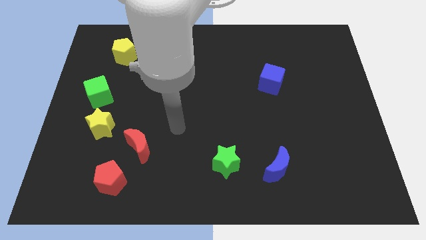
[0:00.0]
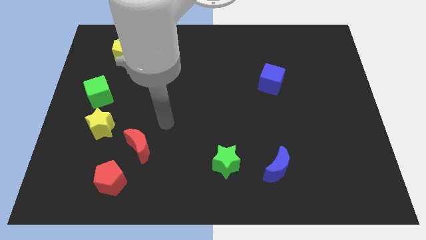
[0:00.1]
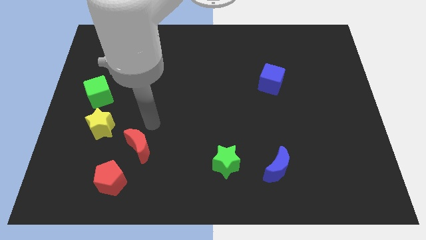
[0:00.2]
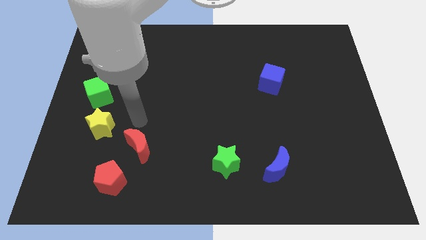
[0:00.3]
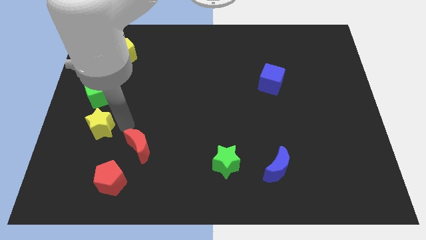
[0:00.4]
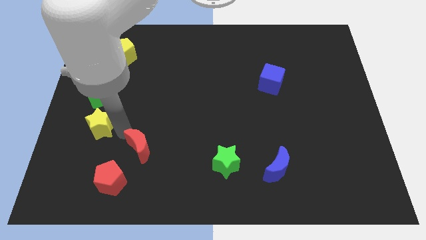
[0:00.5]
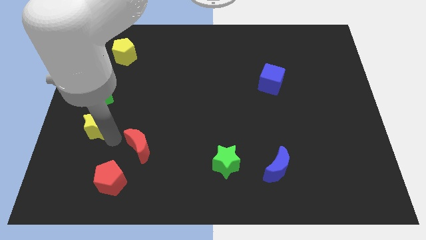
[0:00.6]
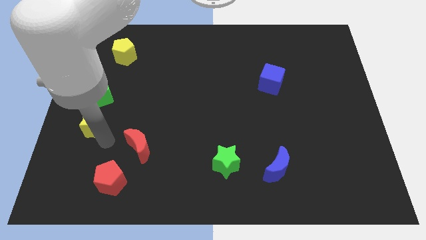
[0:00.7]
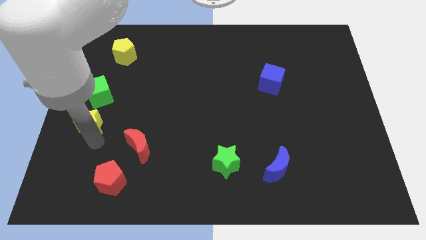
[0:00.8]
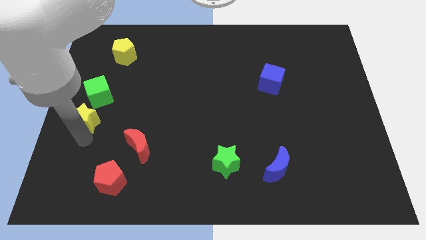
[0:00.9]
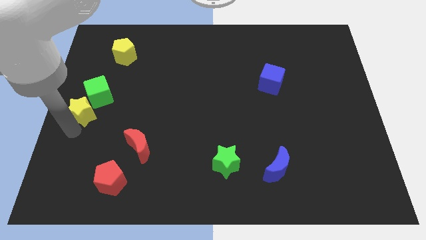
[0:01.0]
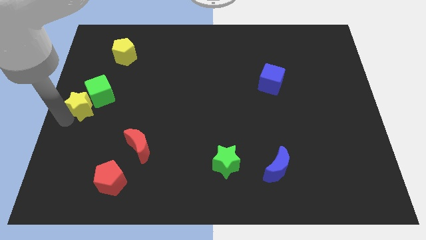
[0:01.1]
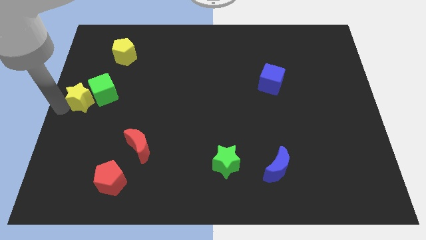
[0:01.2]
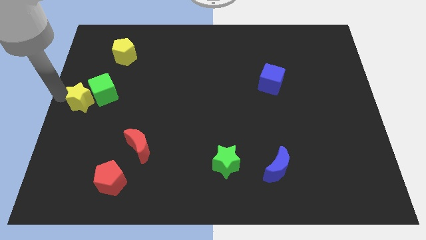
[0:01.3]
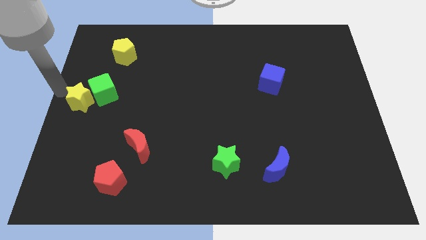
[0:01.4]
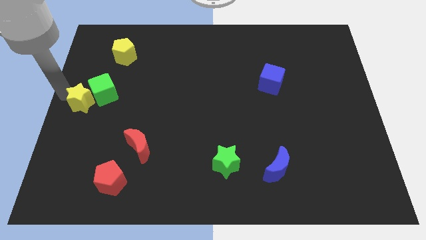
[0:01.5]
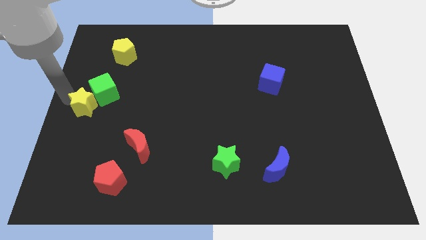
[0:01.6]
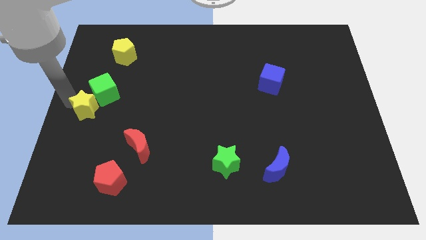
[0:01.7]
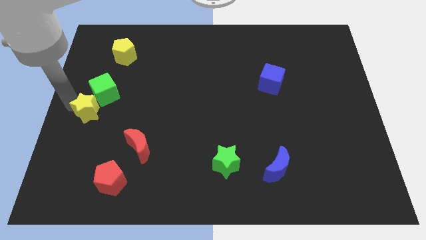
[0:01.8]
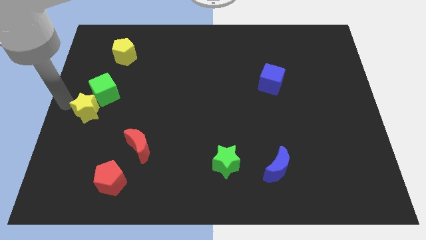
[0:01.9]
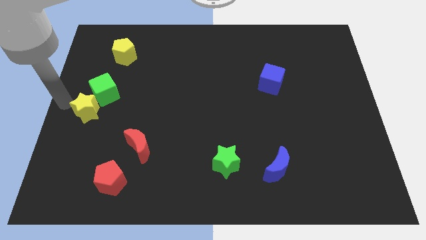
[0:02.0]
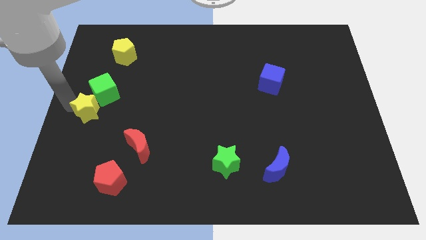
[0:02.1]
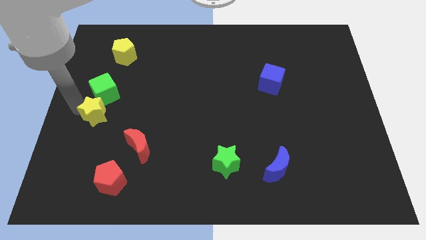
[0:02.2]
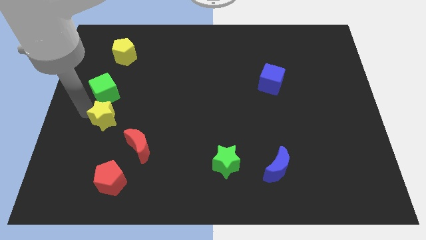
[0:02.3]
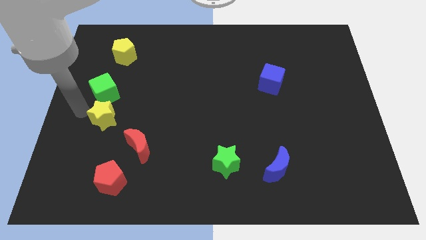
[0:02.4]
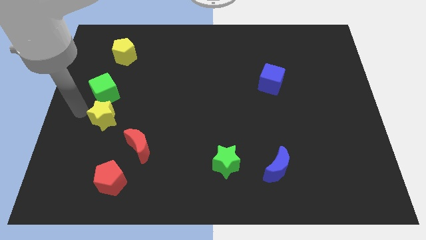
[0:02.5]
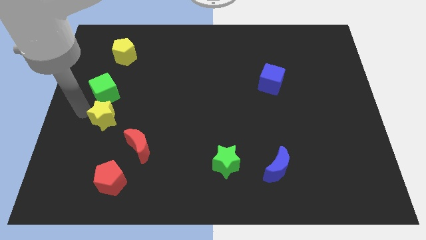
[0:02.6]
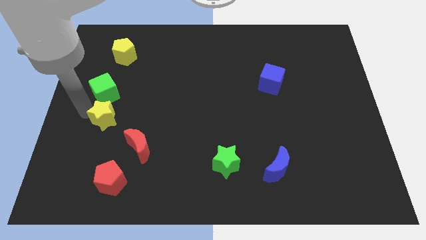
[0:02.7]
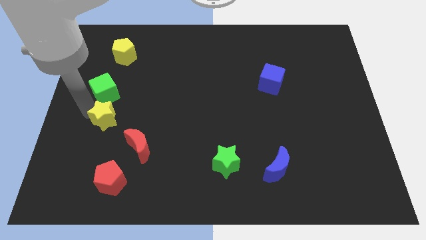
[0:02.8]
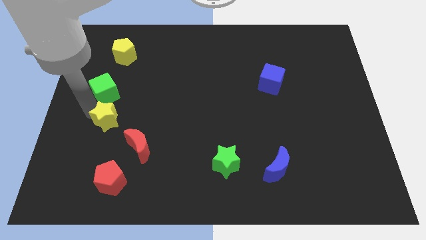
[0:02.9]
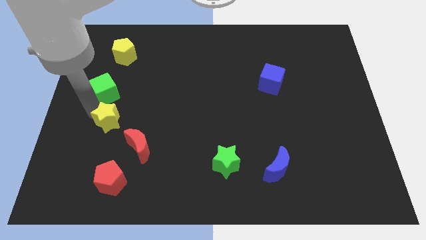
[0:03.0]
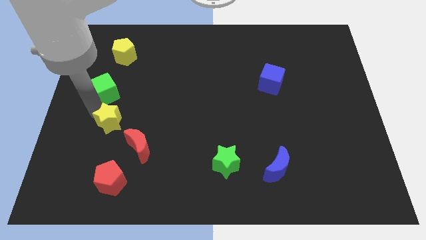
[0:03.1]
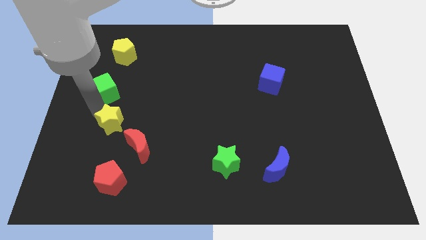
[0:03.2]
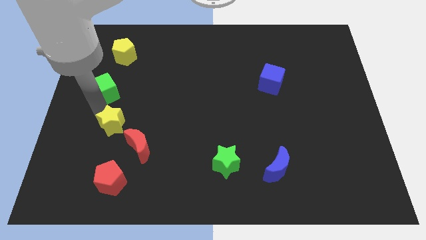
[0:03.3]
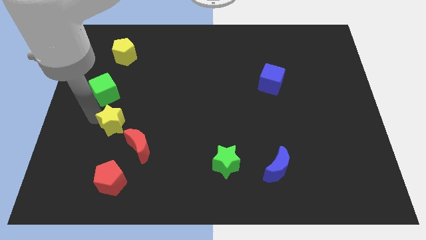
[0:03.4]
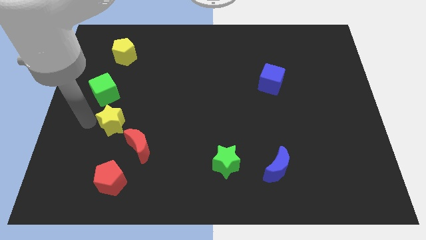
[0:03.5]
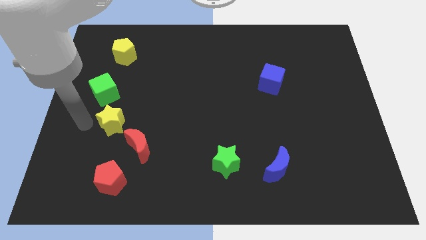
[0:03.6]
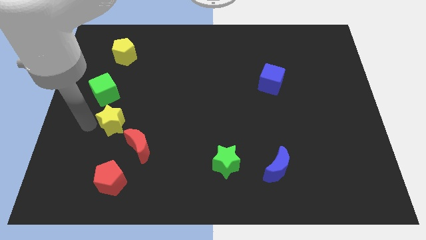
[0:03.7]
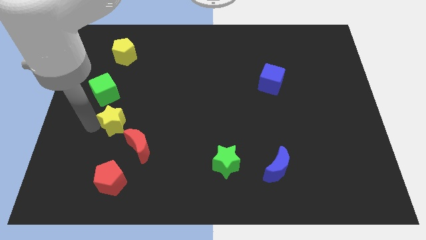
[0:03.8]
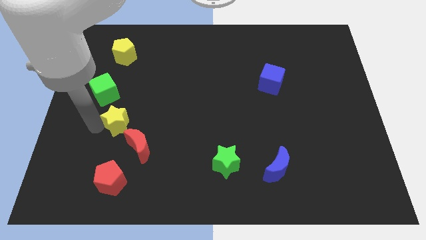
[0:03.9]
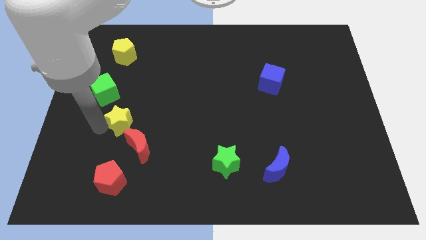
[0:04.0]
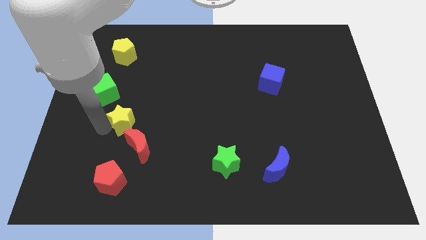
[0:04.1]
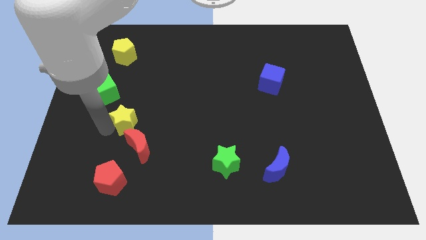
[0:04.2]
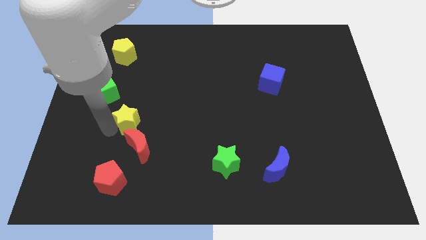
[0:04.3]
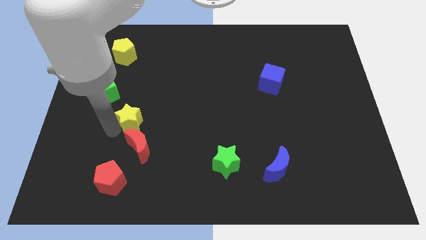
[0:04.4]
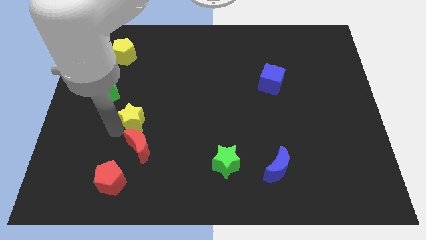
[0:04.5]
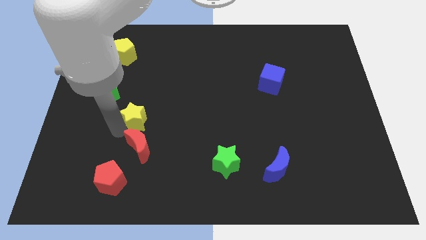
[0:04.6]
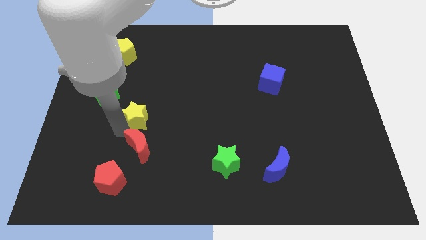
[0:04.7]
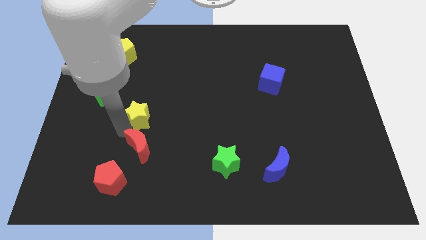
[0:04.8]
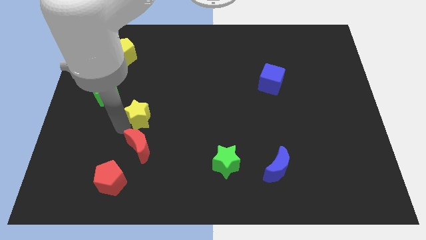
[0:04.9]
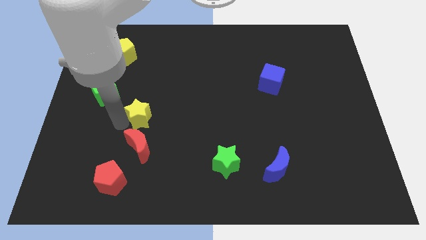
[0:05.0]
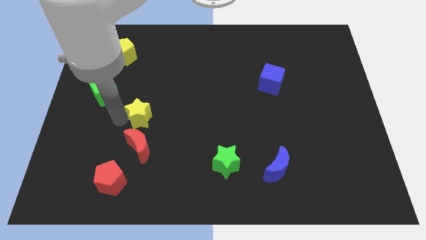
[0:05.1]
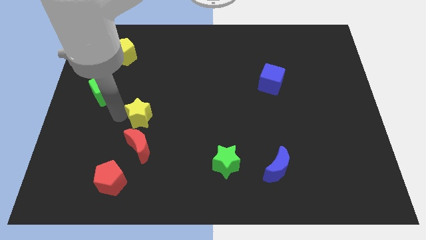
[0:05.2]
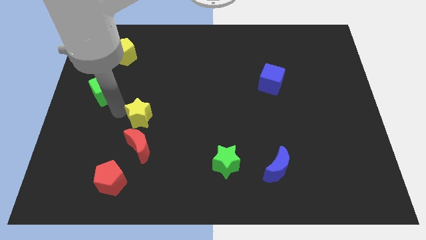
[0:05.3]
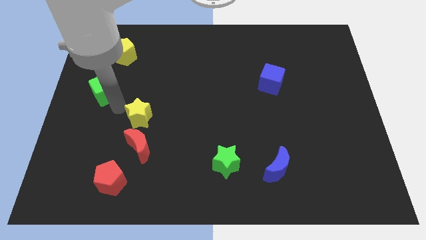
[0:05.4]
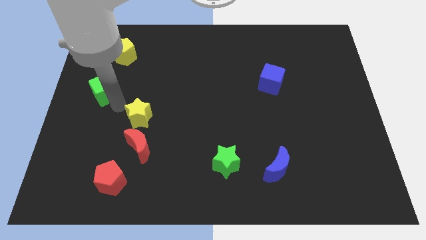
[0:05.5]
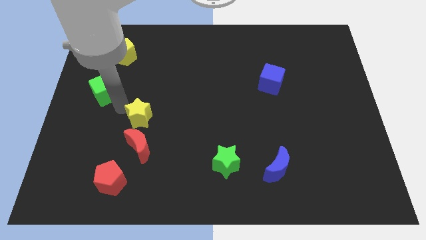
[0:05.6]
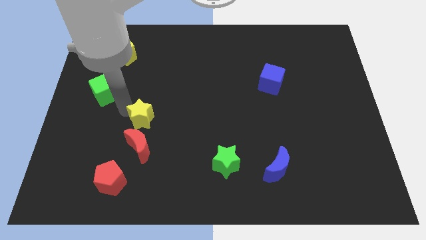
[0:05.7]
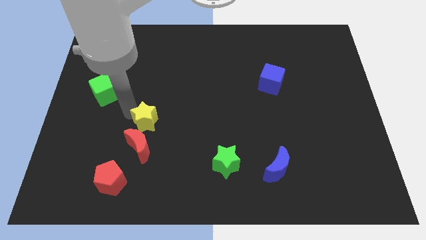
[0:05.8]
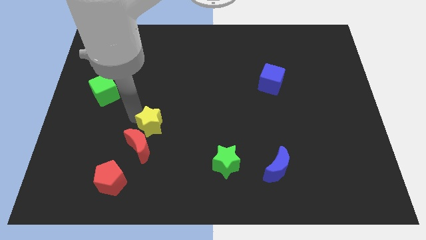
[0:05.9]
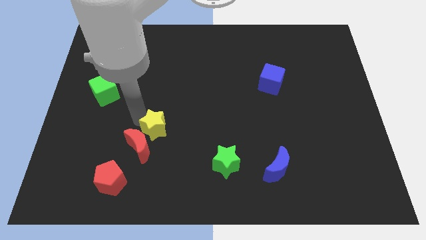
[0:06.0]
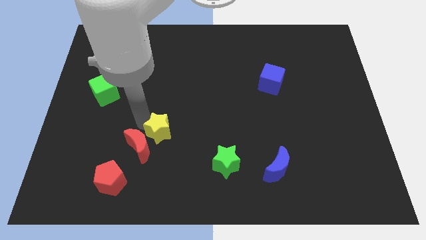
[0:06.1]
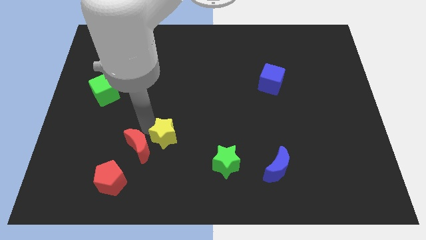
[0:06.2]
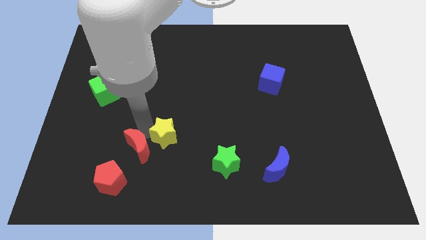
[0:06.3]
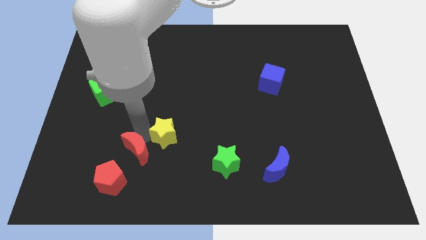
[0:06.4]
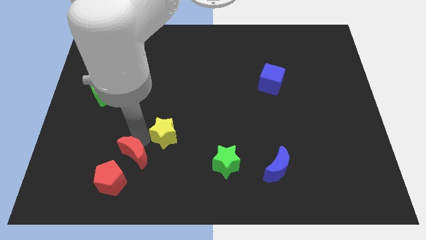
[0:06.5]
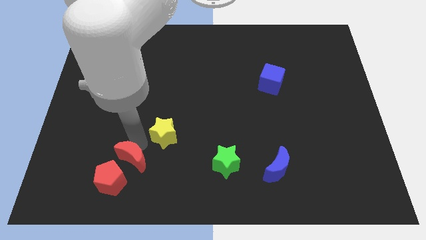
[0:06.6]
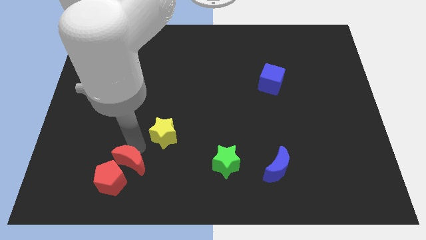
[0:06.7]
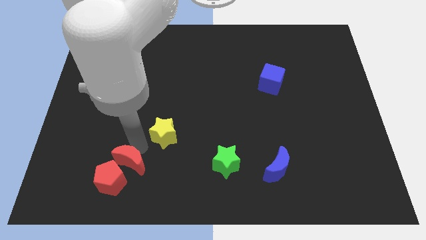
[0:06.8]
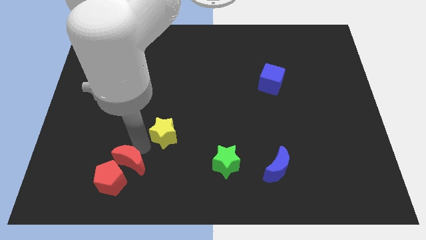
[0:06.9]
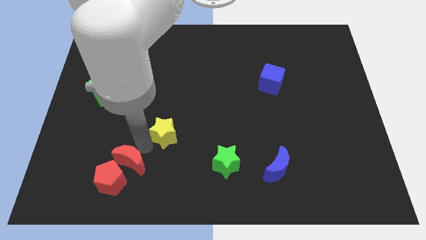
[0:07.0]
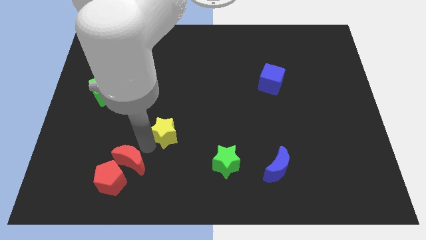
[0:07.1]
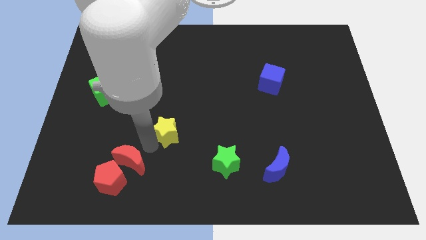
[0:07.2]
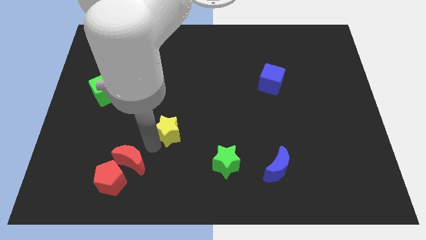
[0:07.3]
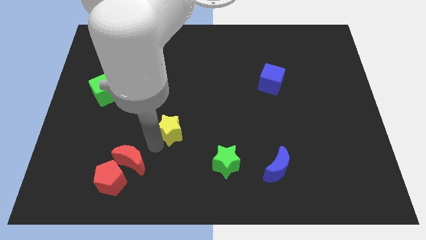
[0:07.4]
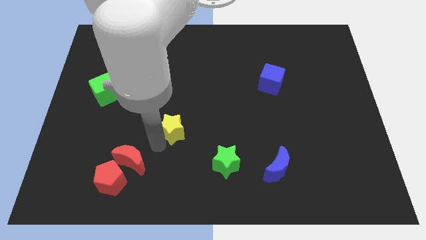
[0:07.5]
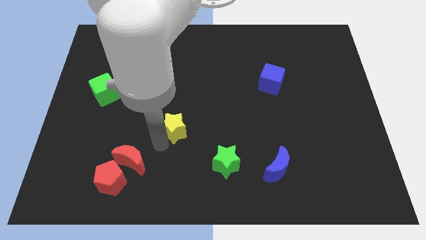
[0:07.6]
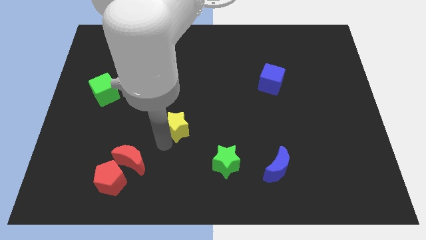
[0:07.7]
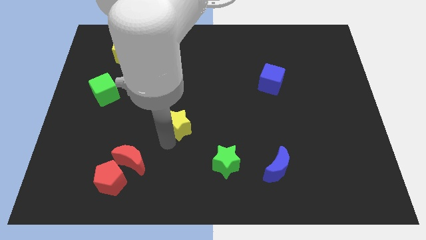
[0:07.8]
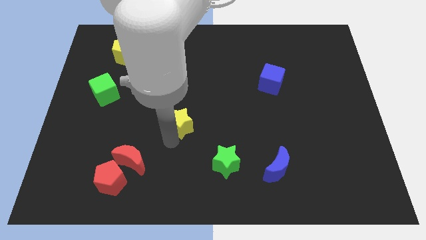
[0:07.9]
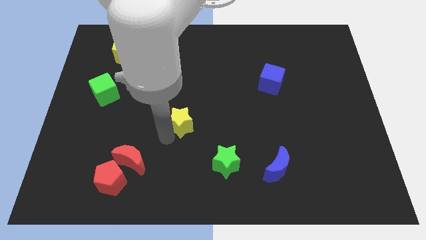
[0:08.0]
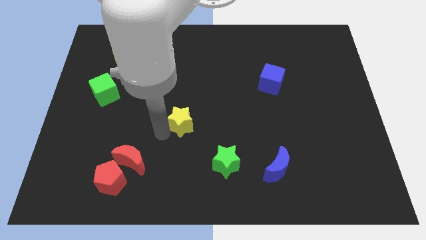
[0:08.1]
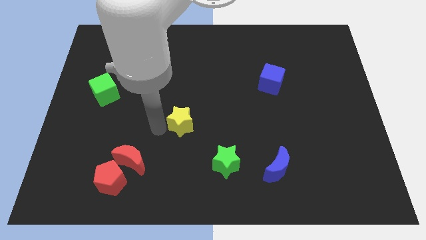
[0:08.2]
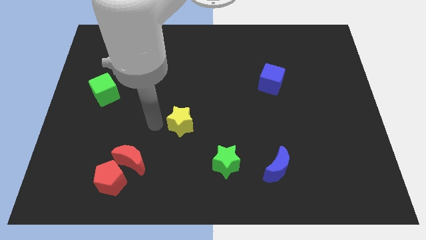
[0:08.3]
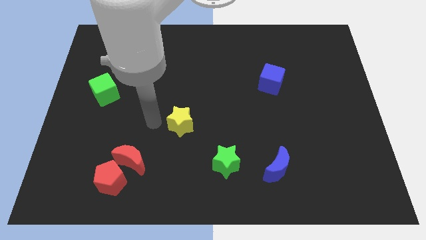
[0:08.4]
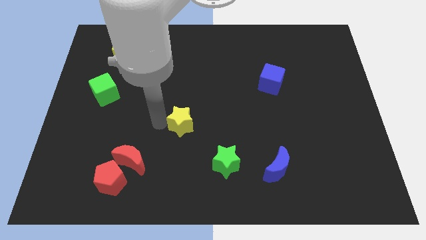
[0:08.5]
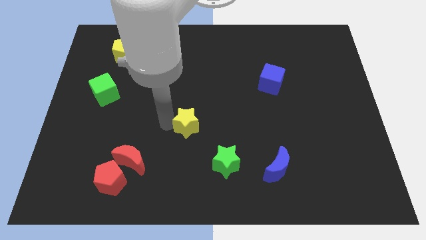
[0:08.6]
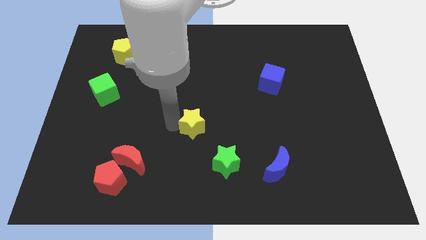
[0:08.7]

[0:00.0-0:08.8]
slide the yellow star to the right
